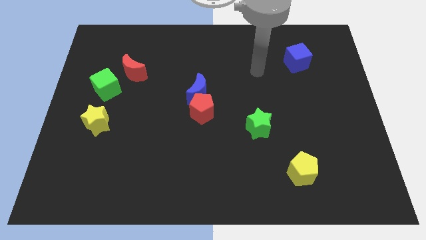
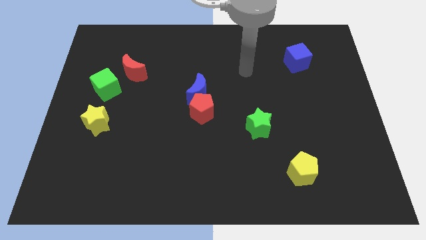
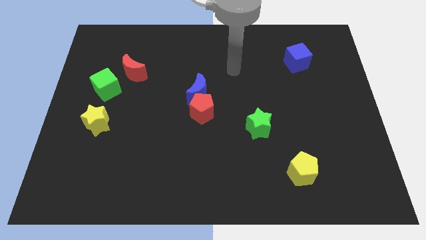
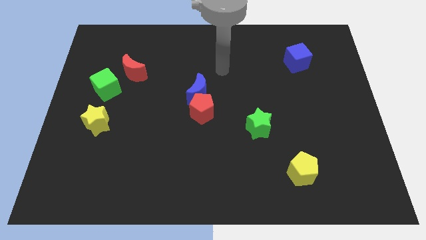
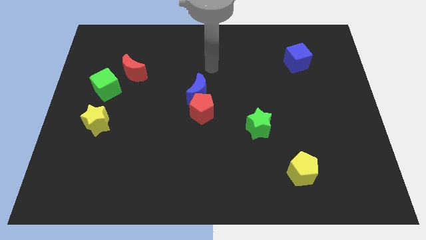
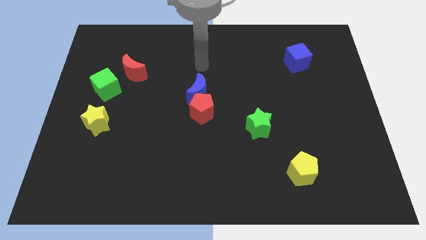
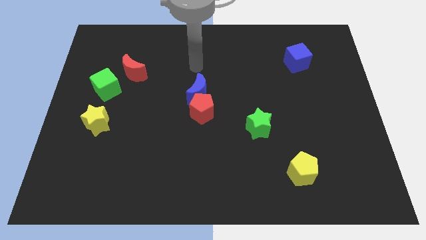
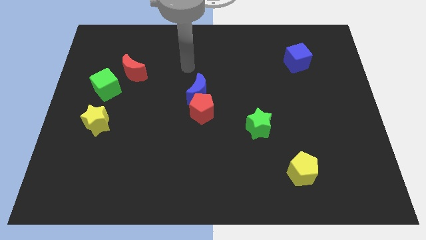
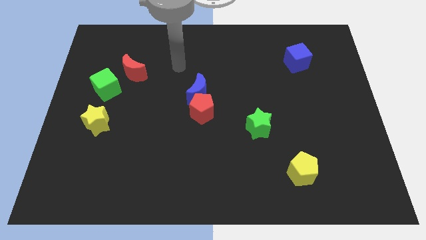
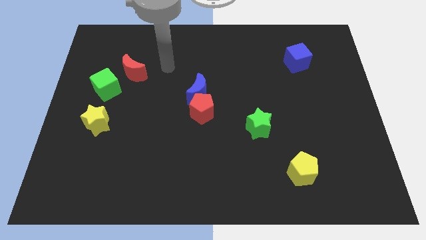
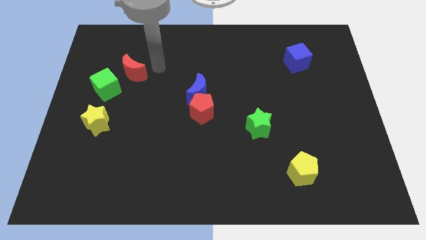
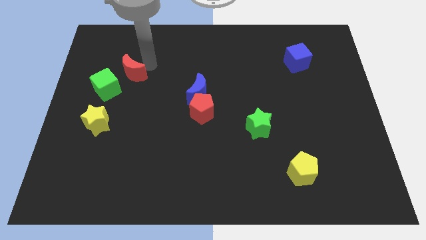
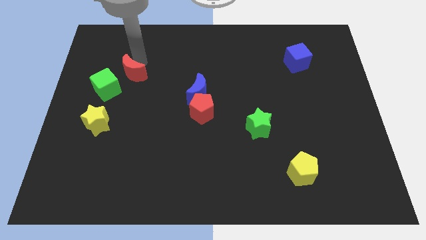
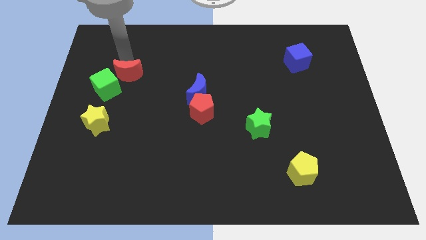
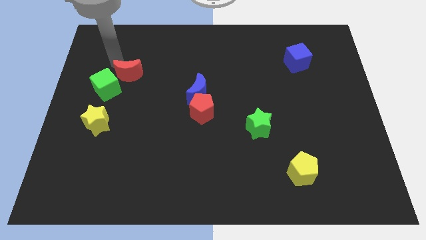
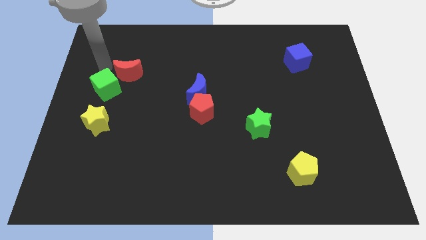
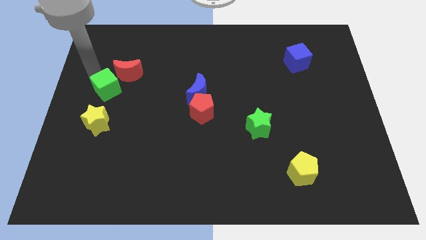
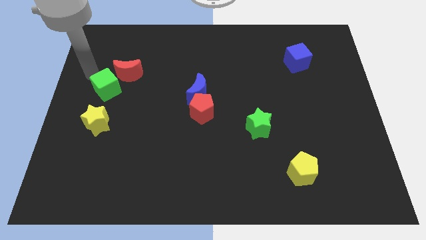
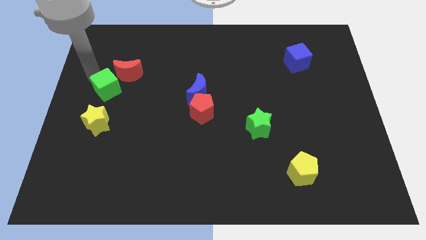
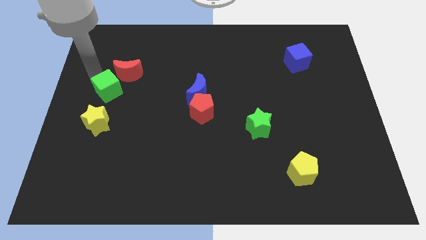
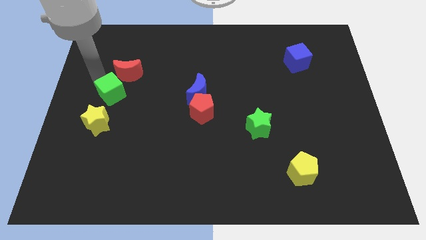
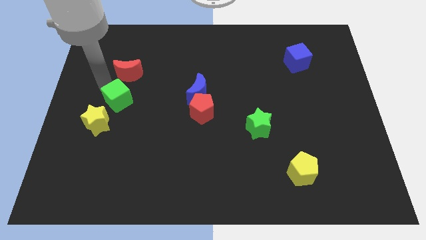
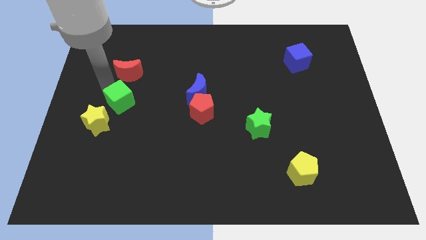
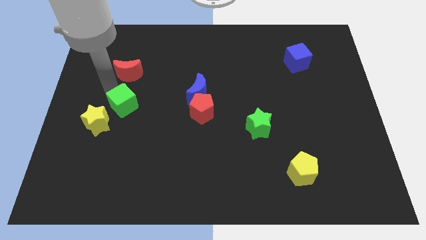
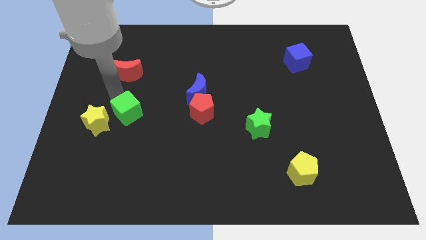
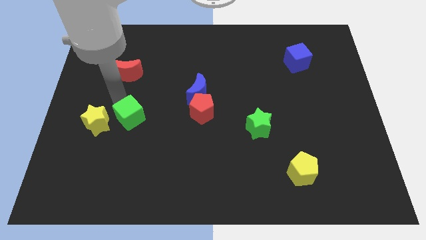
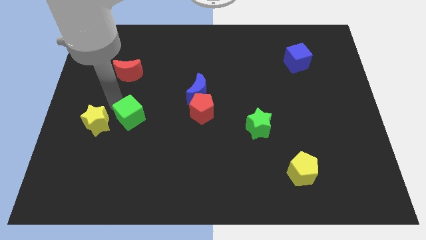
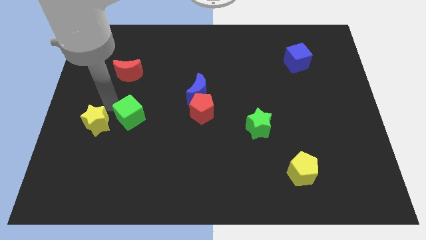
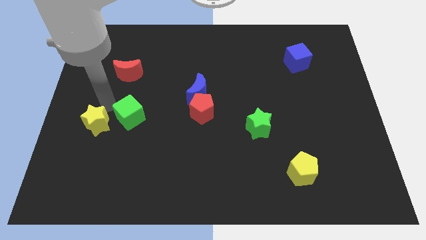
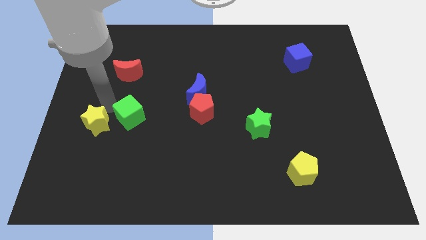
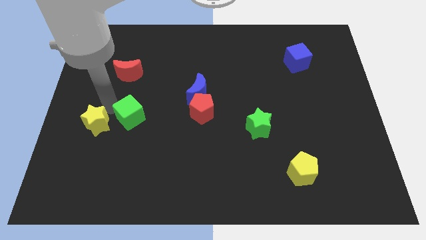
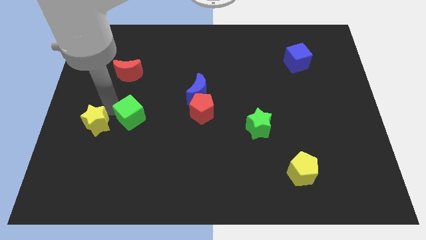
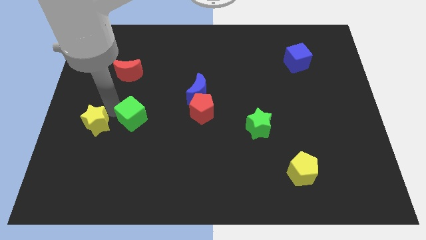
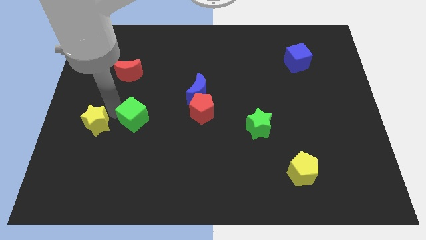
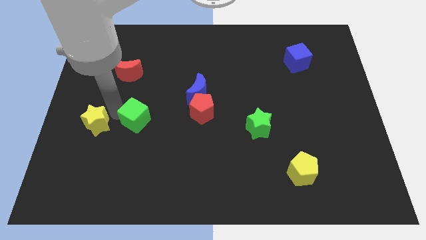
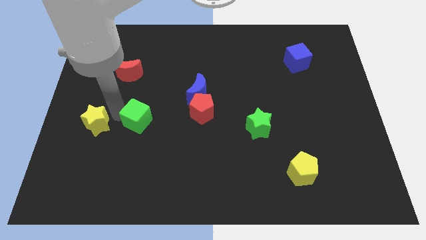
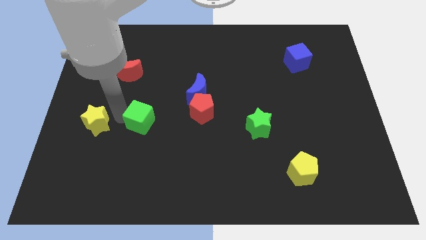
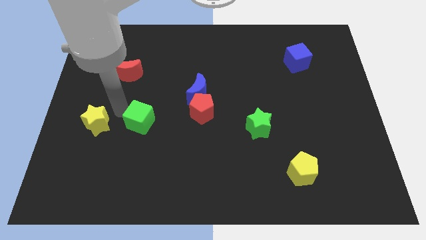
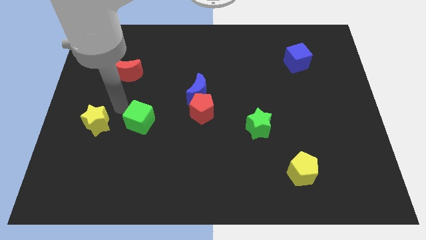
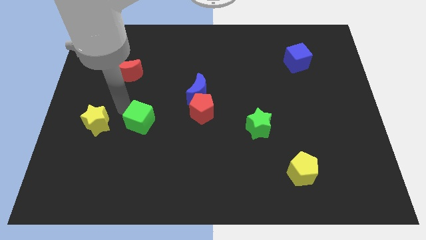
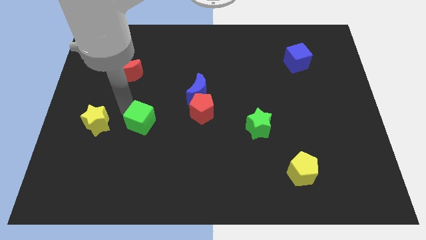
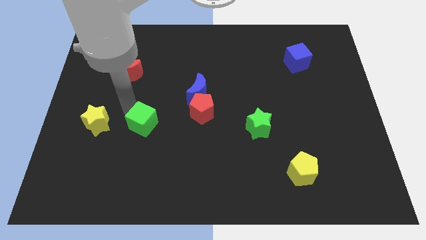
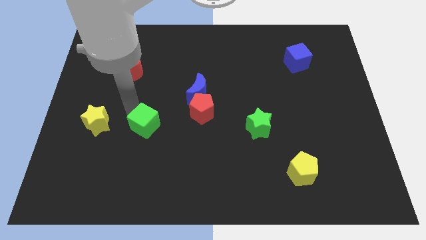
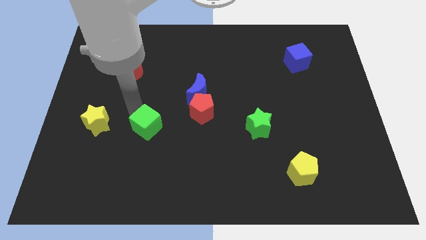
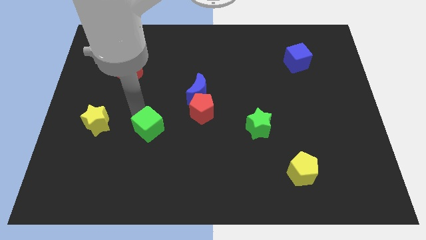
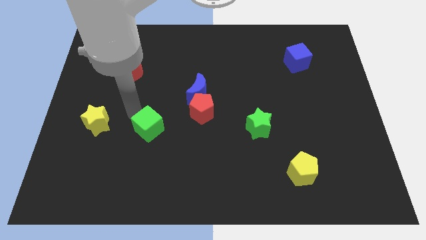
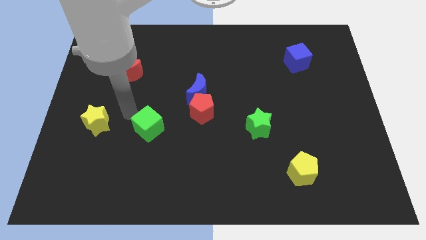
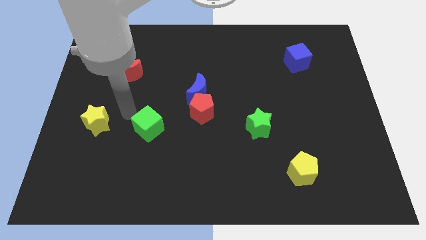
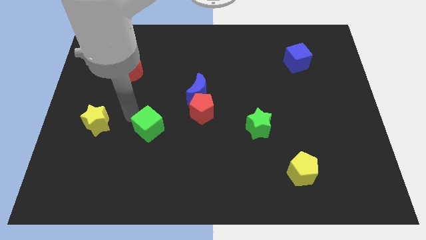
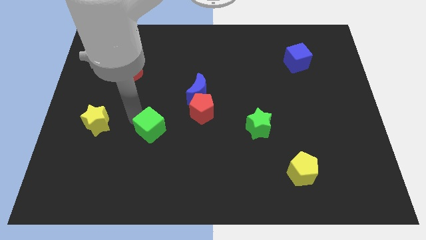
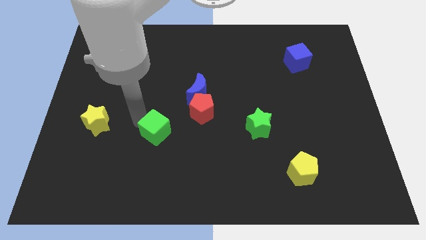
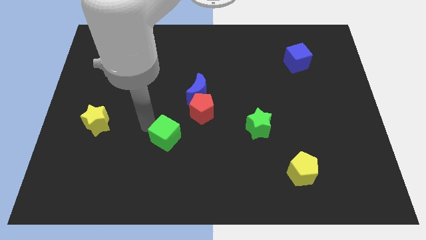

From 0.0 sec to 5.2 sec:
slide the green cube downwards and then to the right

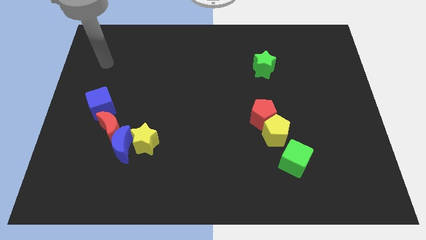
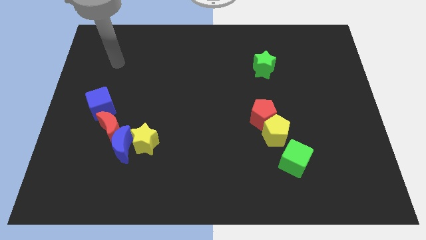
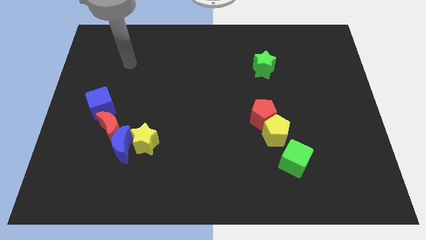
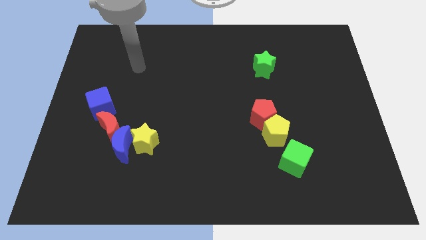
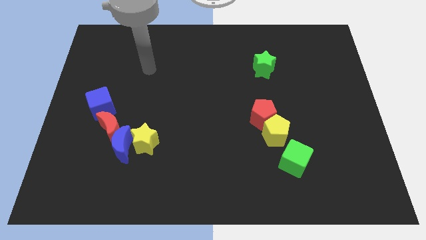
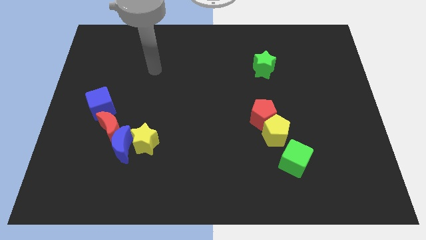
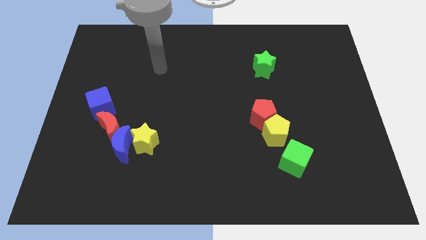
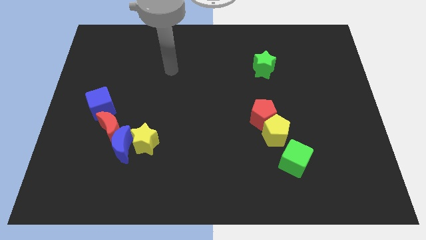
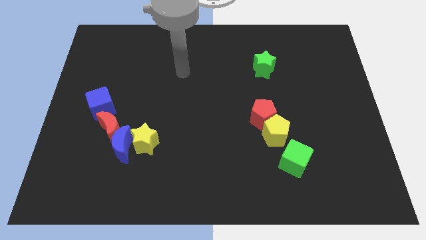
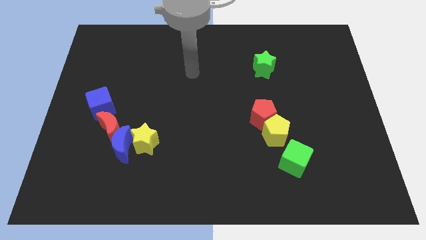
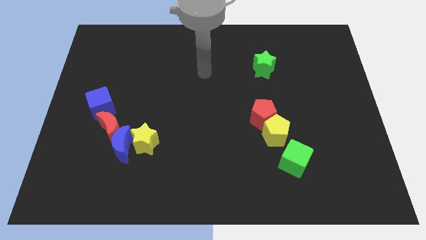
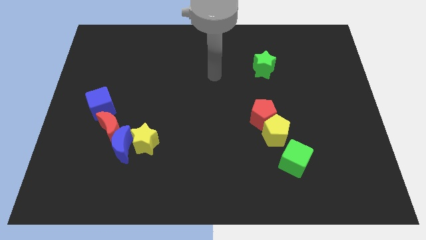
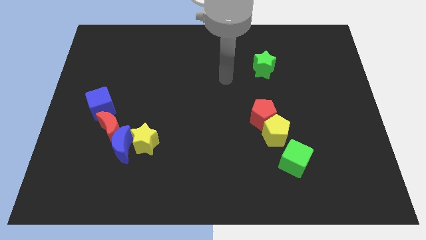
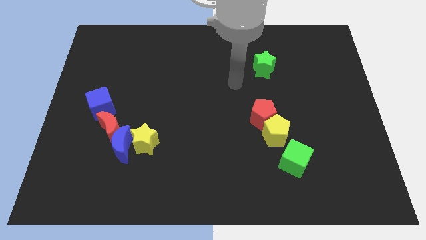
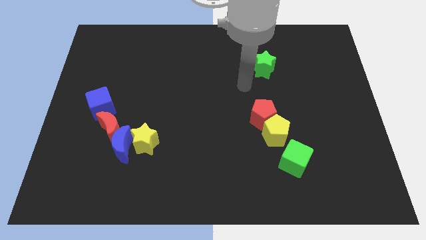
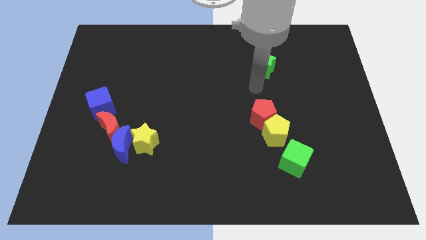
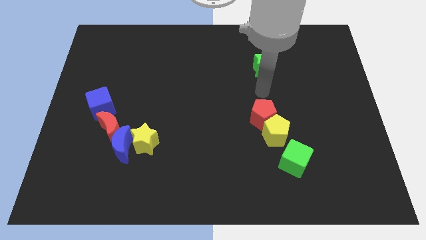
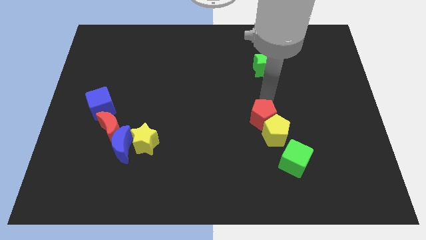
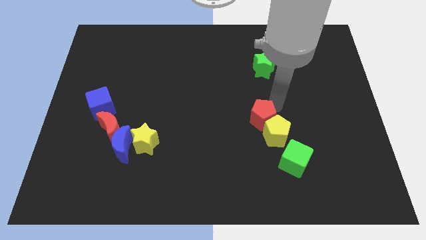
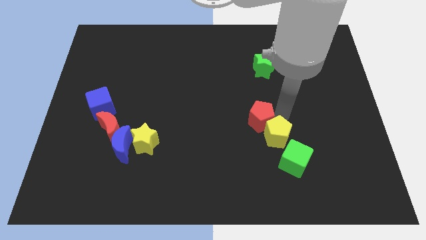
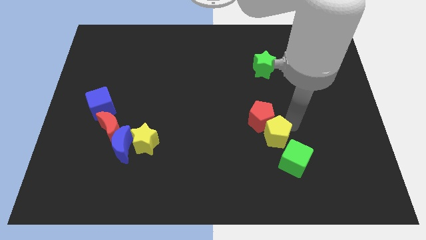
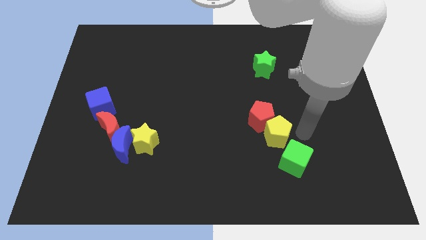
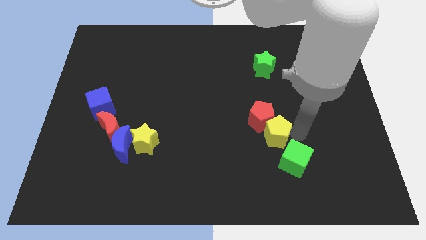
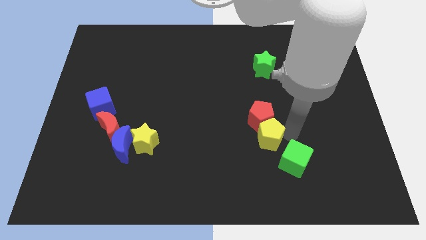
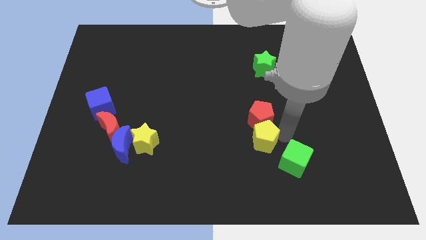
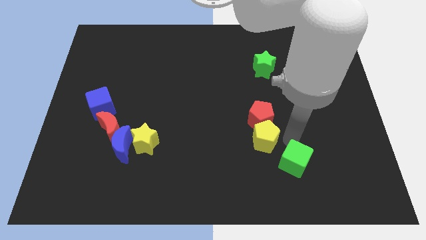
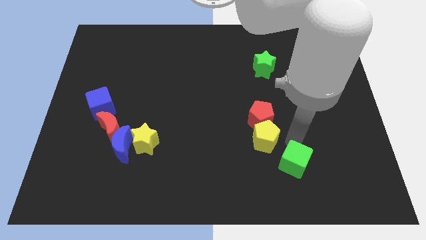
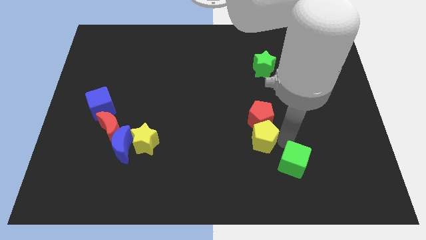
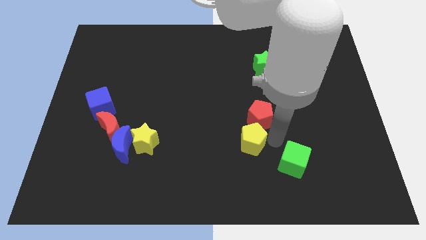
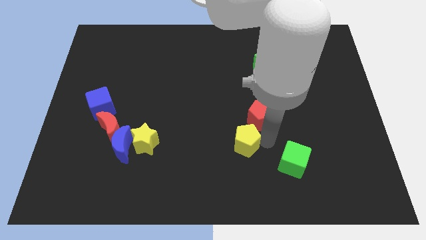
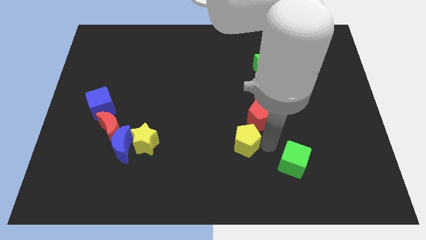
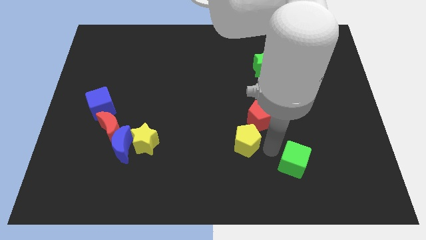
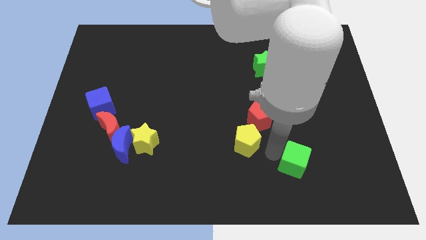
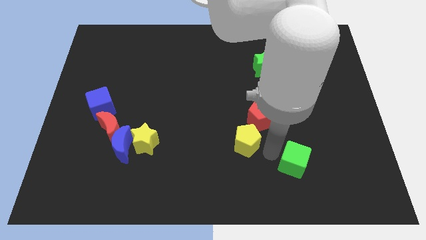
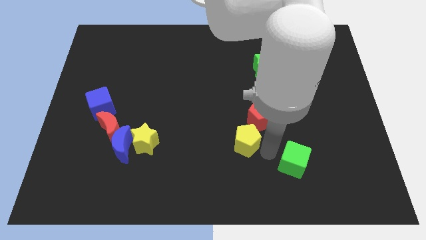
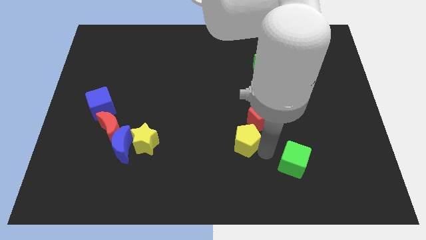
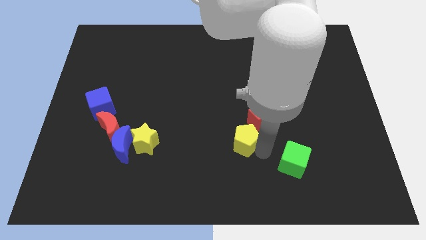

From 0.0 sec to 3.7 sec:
slightly push the yellow pentagon to the left
